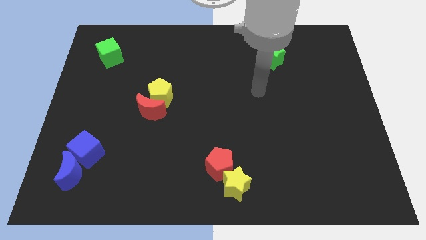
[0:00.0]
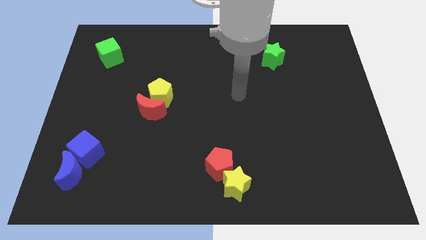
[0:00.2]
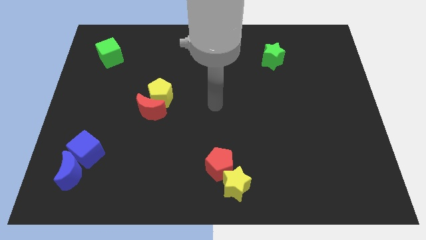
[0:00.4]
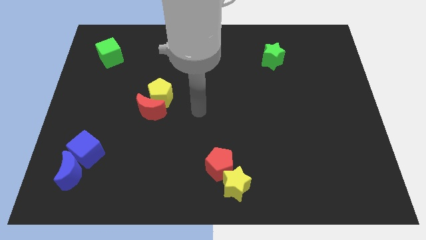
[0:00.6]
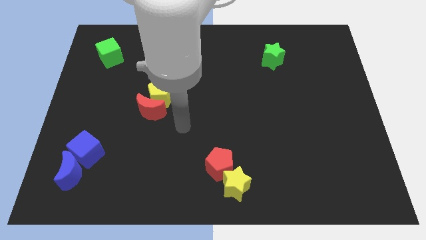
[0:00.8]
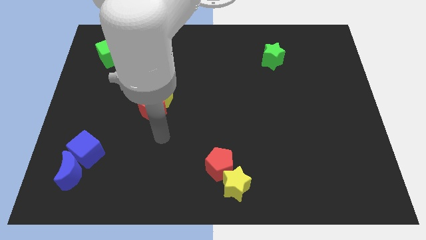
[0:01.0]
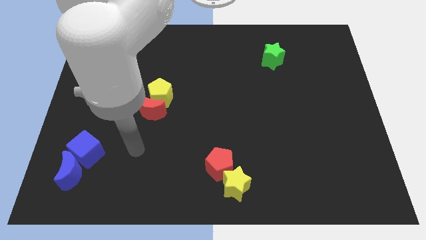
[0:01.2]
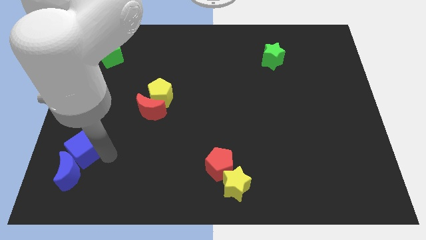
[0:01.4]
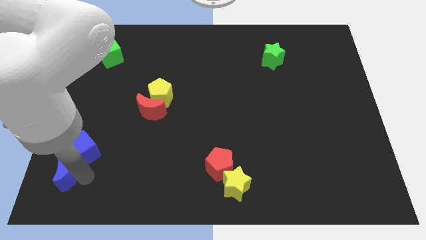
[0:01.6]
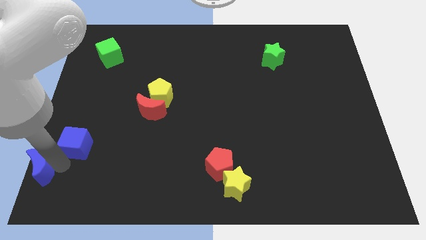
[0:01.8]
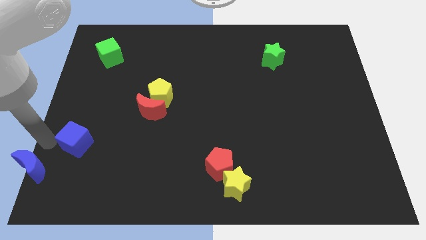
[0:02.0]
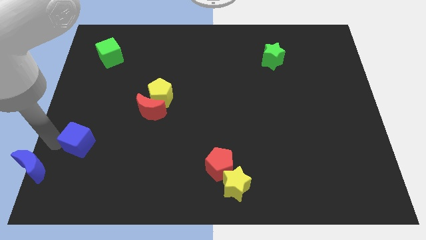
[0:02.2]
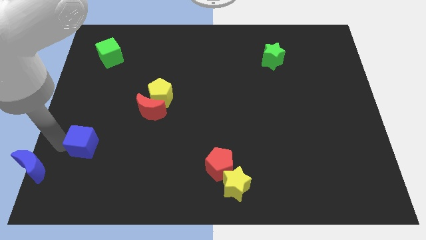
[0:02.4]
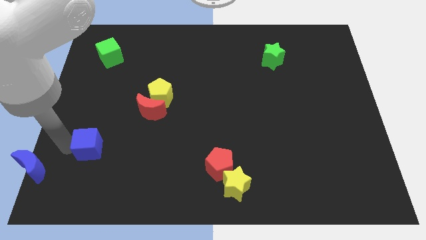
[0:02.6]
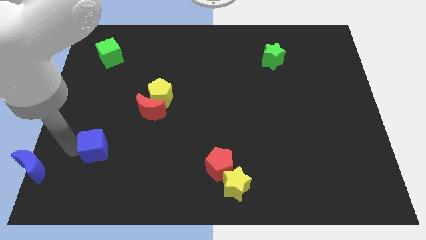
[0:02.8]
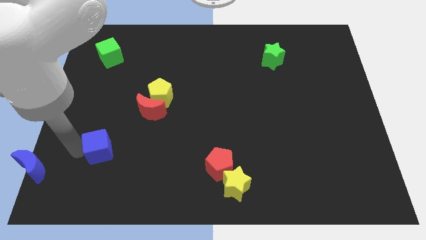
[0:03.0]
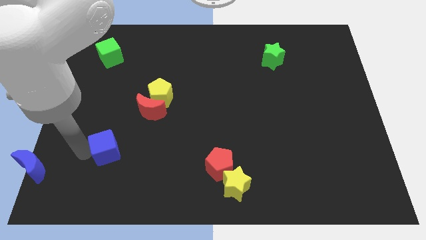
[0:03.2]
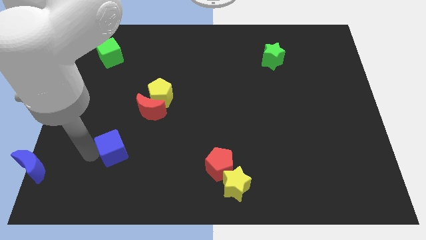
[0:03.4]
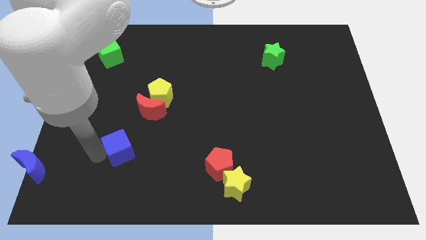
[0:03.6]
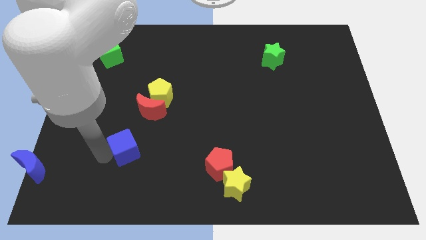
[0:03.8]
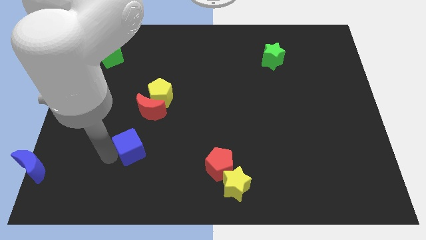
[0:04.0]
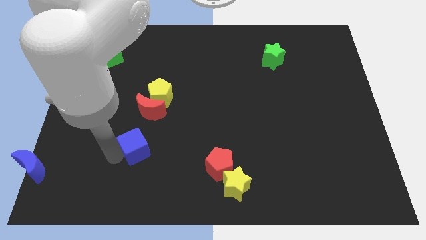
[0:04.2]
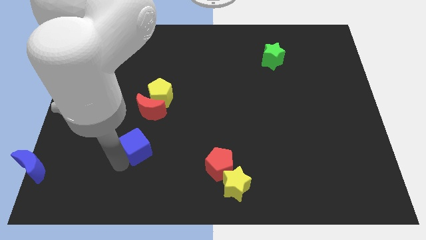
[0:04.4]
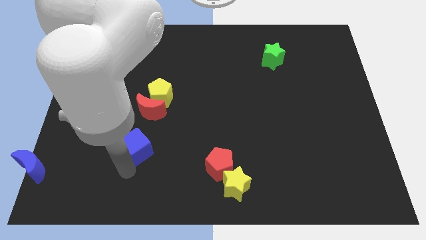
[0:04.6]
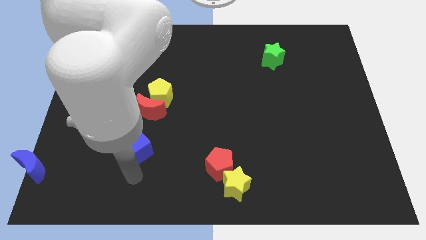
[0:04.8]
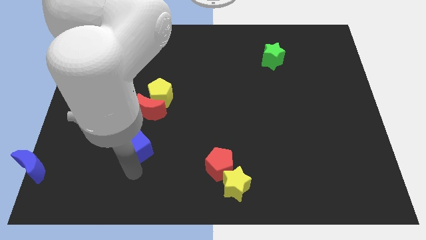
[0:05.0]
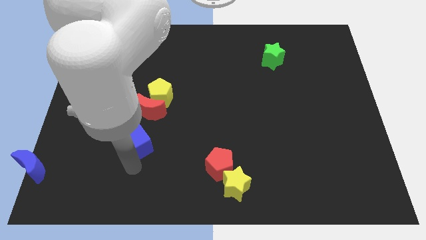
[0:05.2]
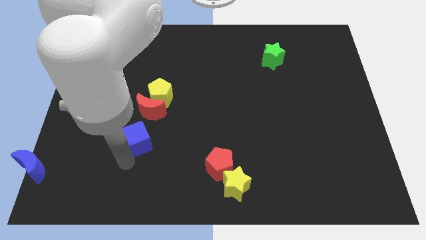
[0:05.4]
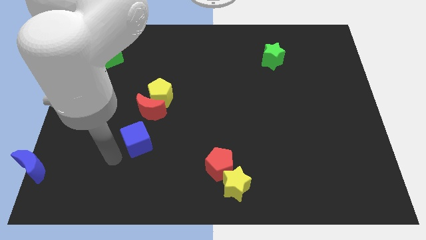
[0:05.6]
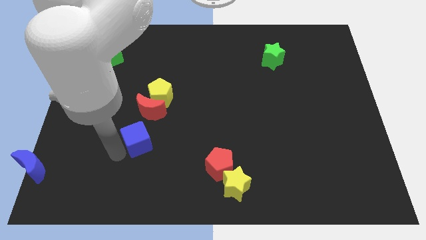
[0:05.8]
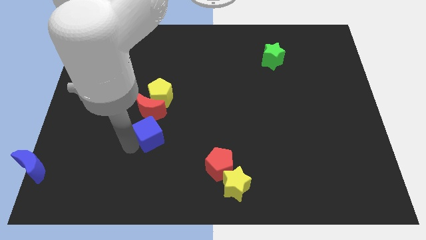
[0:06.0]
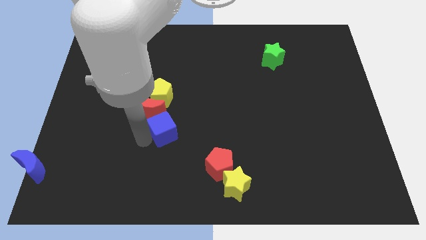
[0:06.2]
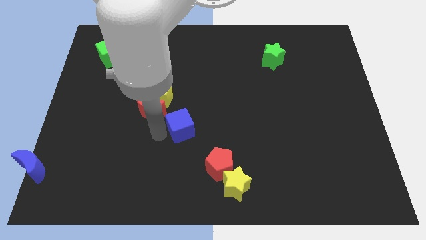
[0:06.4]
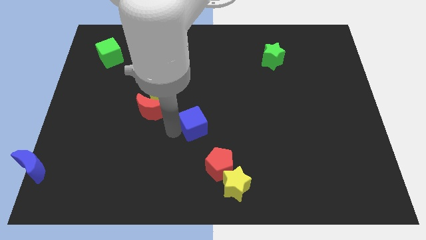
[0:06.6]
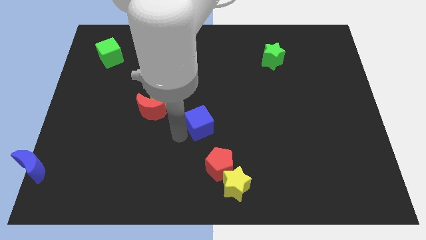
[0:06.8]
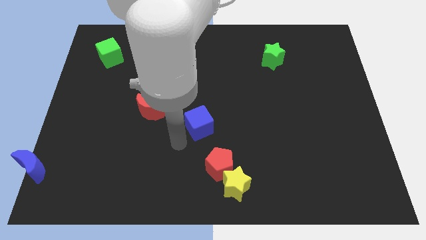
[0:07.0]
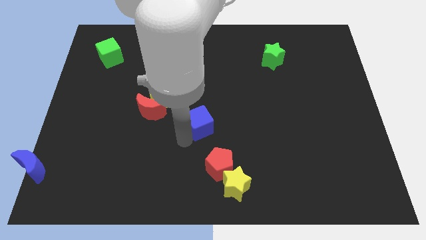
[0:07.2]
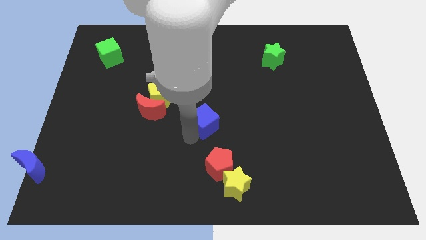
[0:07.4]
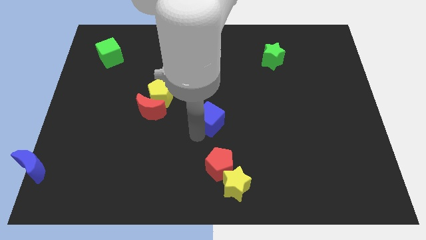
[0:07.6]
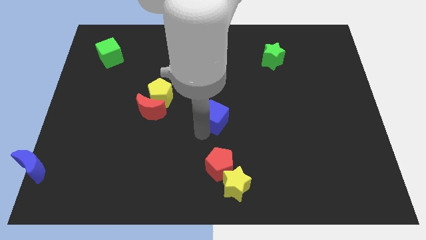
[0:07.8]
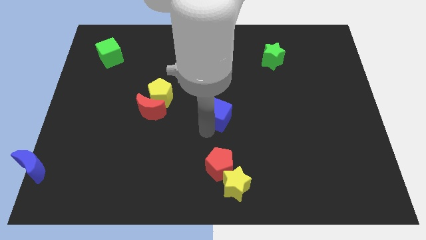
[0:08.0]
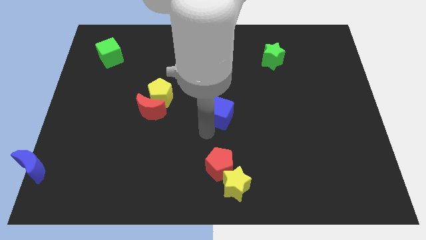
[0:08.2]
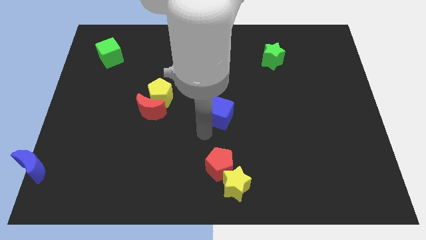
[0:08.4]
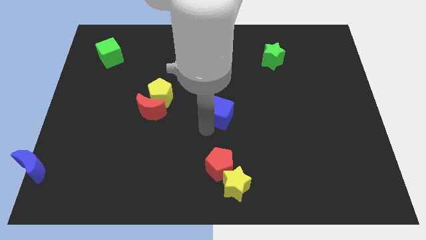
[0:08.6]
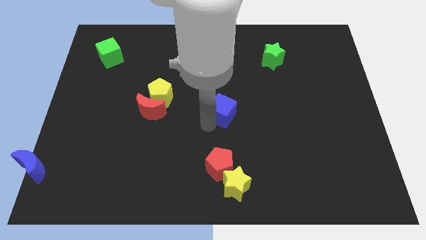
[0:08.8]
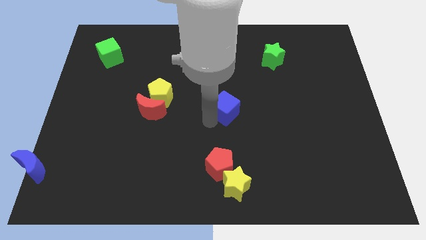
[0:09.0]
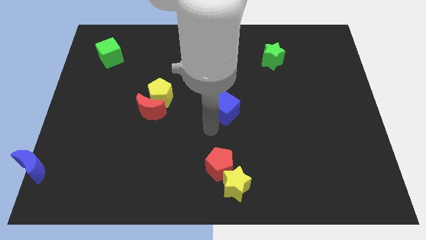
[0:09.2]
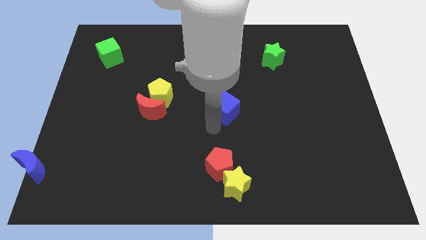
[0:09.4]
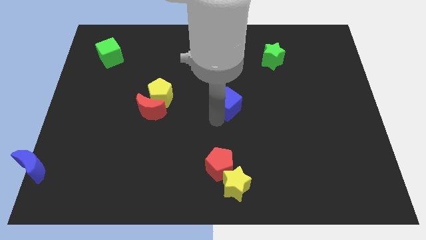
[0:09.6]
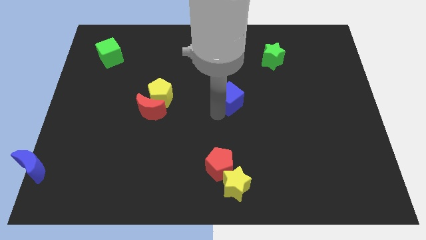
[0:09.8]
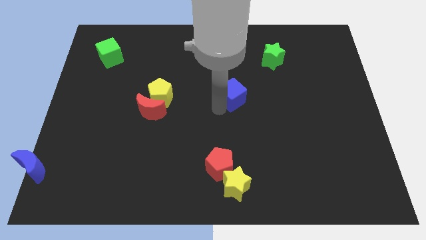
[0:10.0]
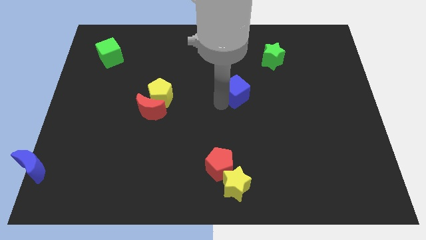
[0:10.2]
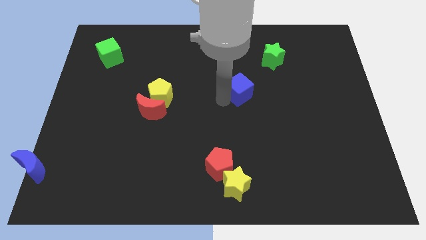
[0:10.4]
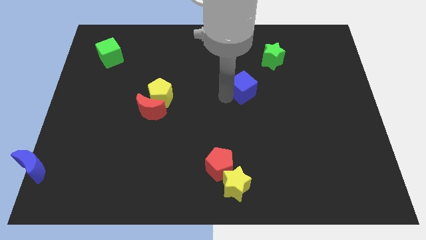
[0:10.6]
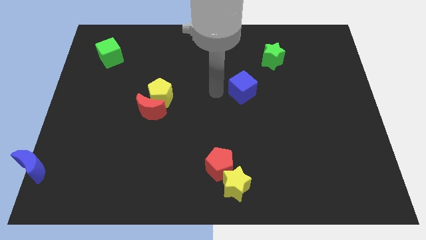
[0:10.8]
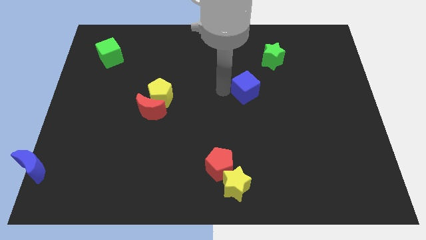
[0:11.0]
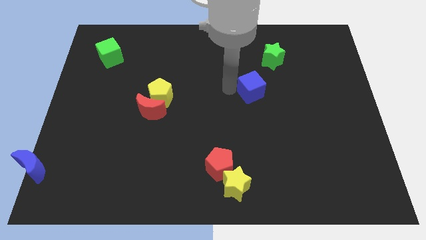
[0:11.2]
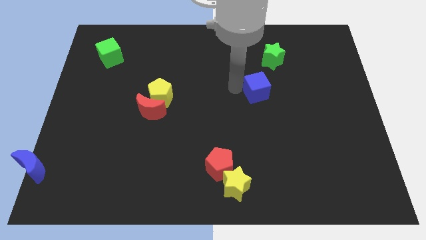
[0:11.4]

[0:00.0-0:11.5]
put the blue cube below the green star

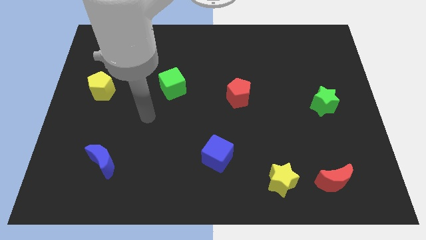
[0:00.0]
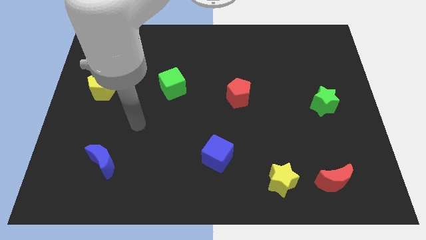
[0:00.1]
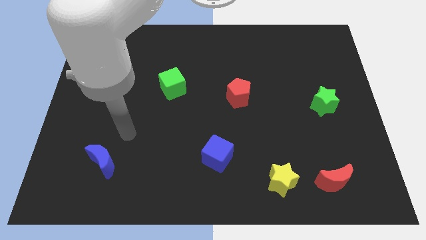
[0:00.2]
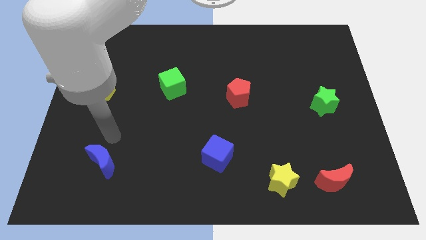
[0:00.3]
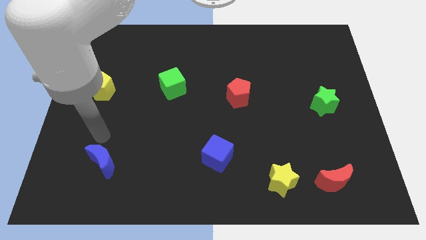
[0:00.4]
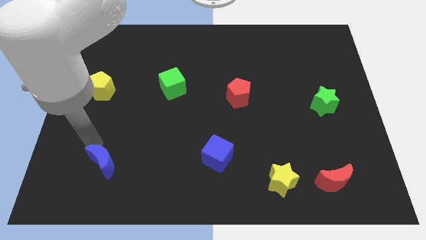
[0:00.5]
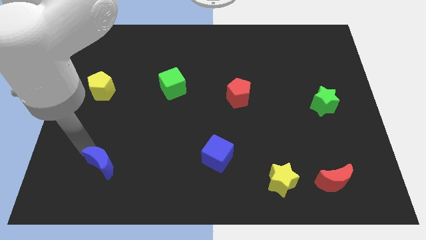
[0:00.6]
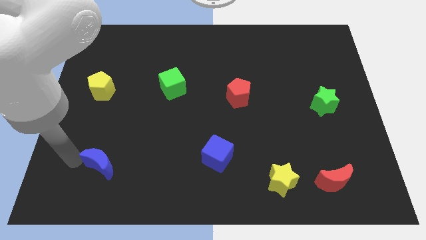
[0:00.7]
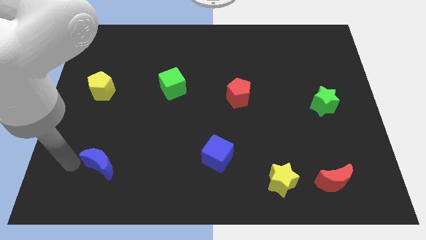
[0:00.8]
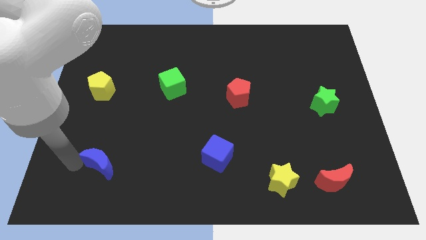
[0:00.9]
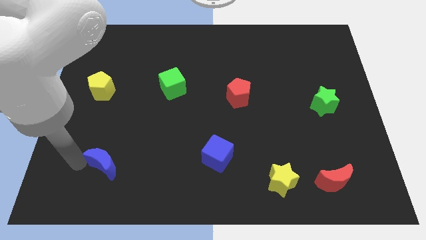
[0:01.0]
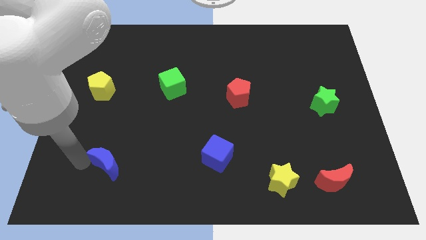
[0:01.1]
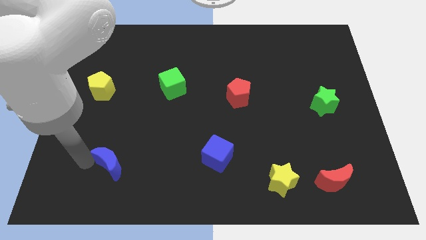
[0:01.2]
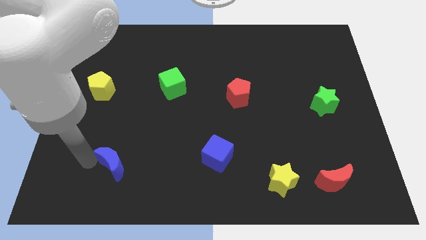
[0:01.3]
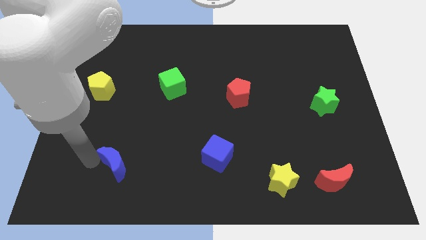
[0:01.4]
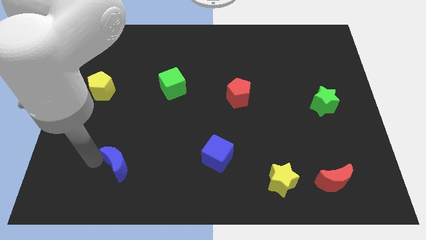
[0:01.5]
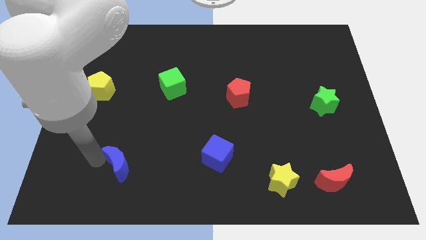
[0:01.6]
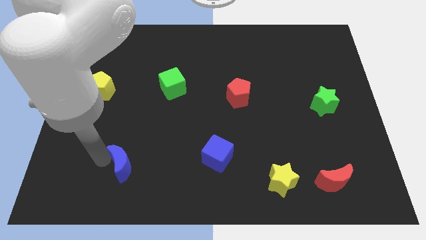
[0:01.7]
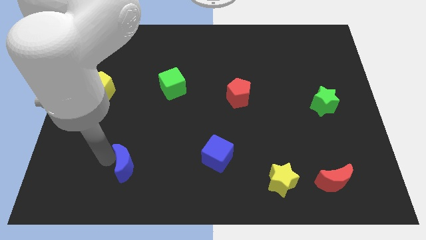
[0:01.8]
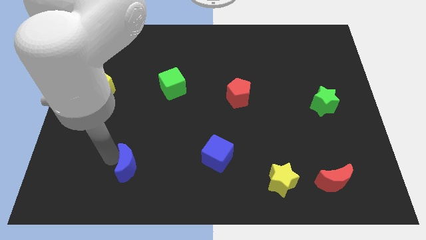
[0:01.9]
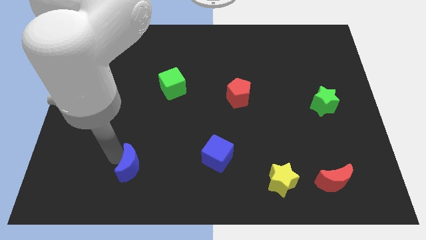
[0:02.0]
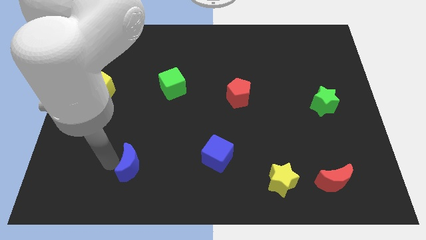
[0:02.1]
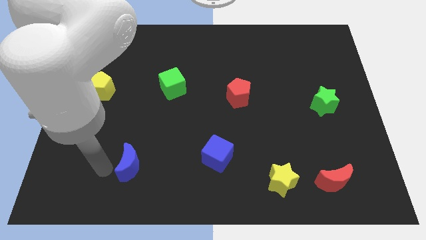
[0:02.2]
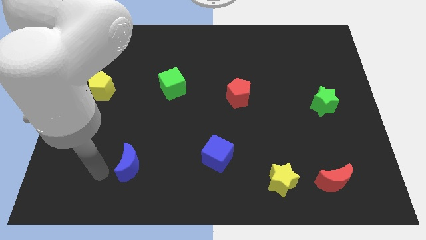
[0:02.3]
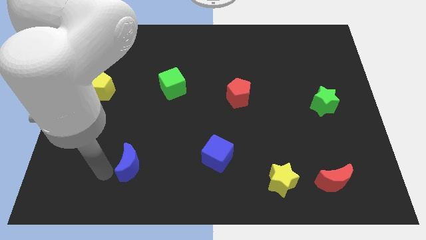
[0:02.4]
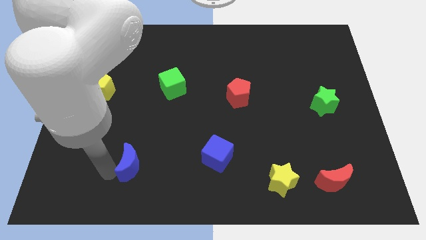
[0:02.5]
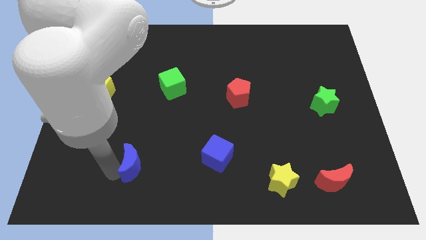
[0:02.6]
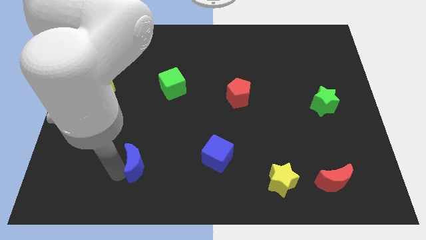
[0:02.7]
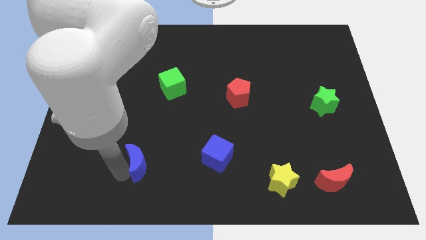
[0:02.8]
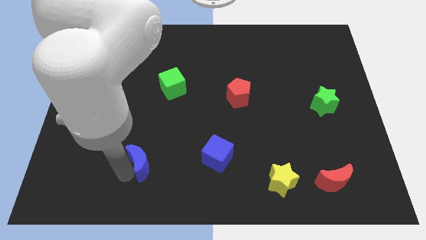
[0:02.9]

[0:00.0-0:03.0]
move the blue moon to the left of the blue cube
